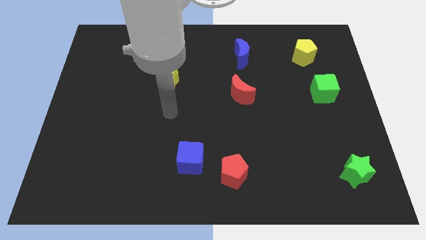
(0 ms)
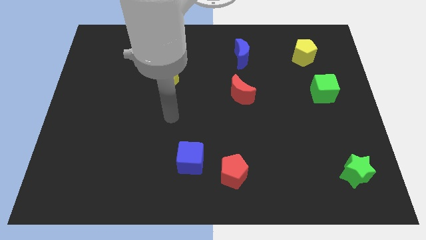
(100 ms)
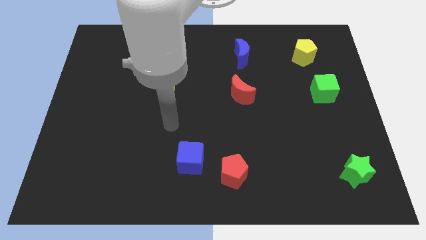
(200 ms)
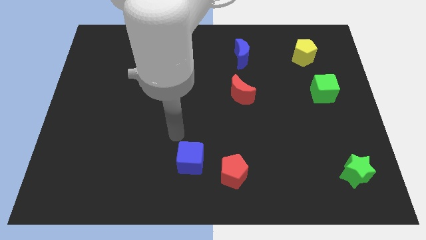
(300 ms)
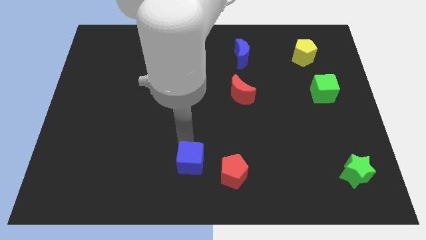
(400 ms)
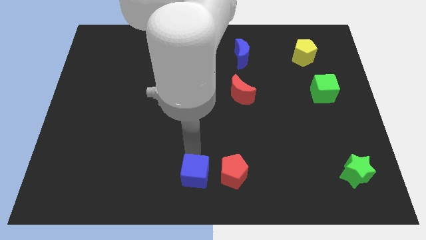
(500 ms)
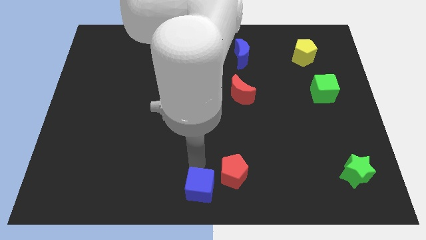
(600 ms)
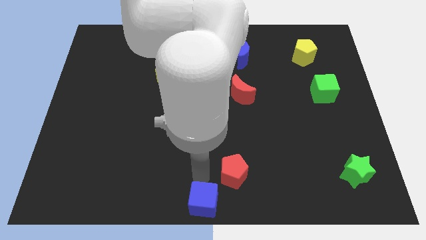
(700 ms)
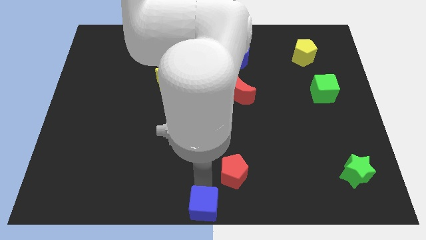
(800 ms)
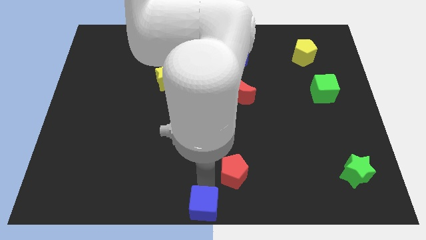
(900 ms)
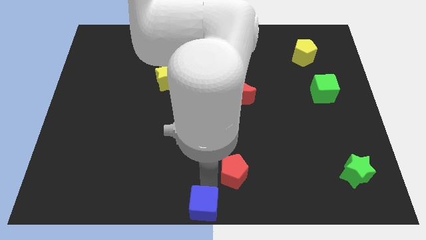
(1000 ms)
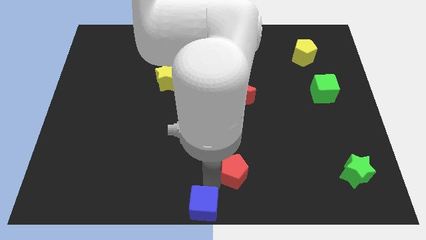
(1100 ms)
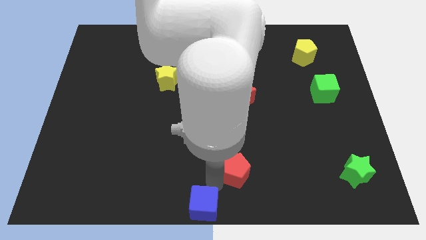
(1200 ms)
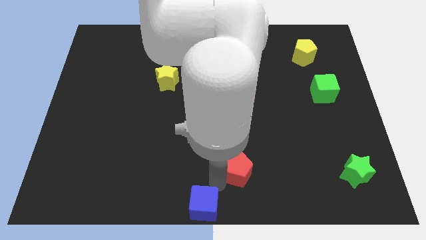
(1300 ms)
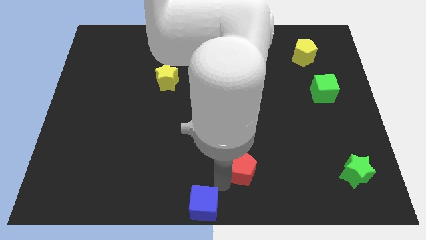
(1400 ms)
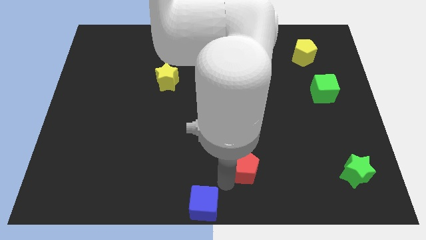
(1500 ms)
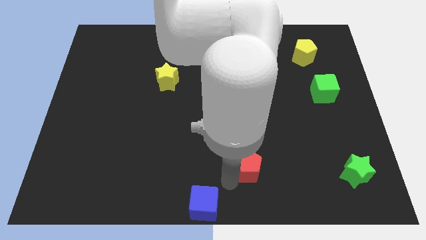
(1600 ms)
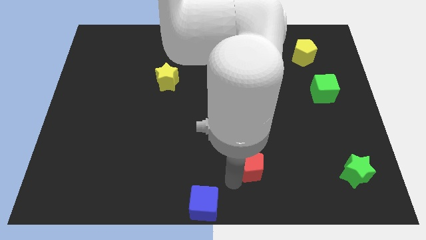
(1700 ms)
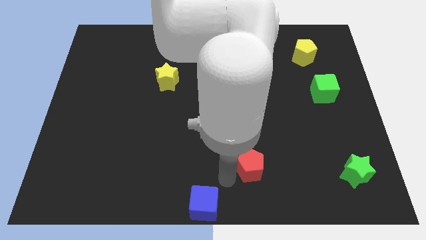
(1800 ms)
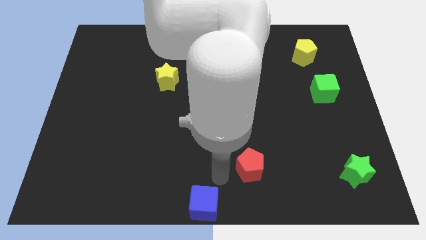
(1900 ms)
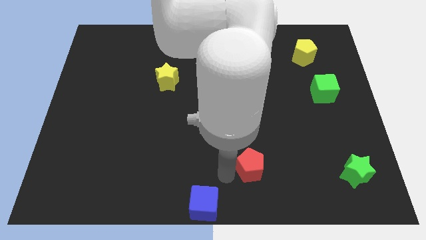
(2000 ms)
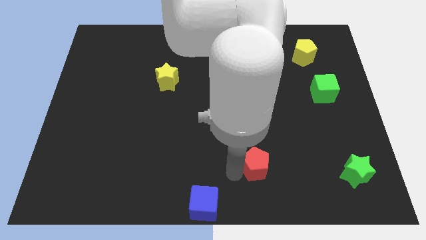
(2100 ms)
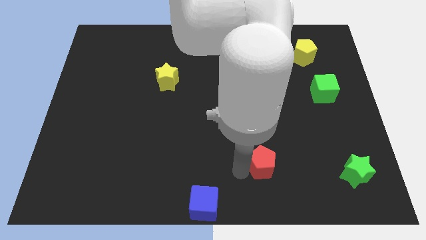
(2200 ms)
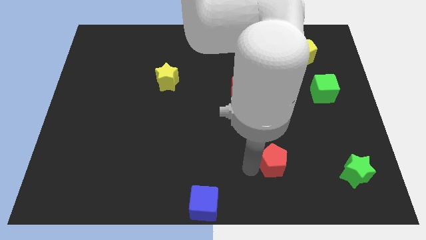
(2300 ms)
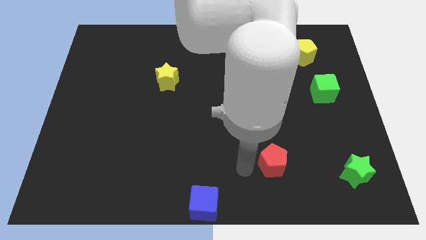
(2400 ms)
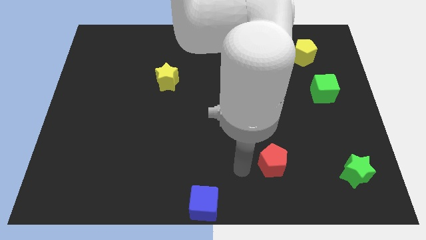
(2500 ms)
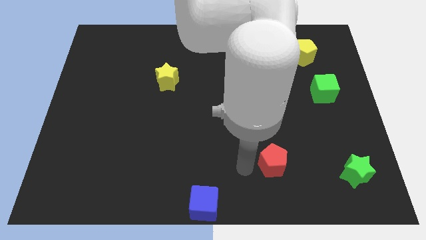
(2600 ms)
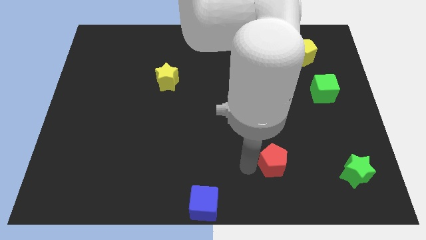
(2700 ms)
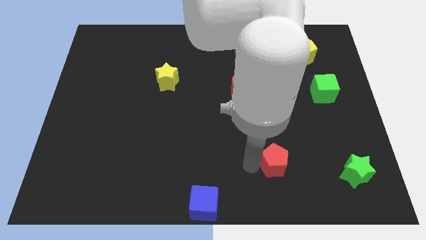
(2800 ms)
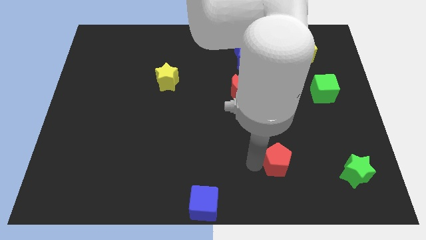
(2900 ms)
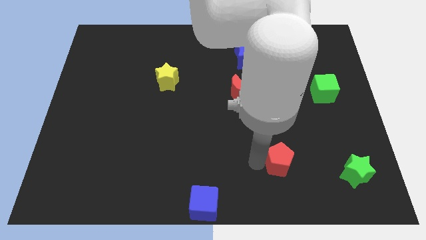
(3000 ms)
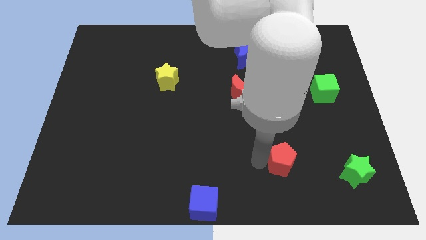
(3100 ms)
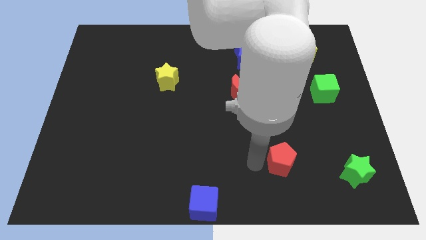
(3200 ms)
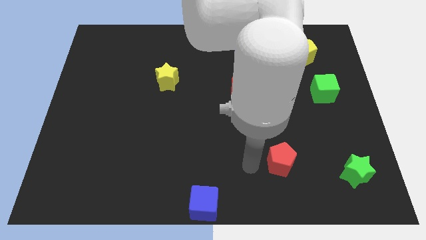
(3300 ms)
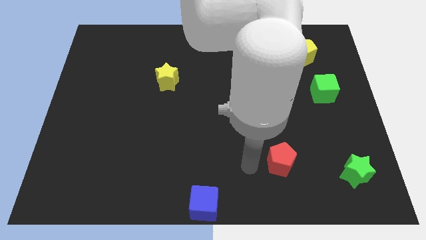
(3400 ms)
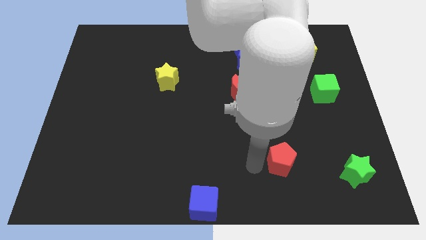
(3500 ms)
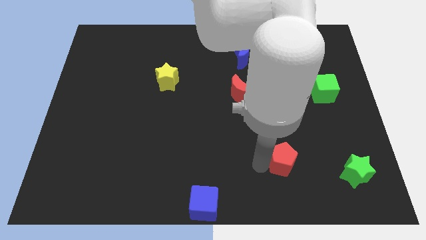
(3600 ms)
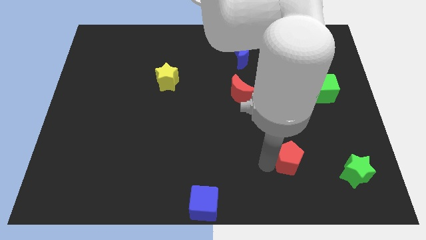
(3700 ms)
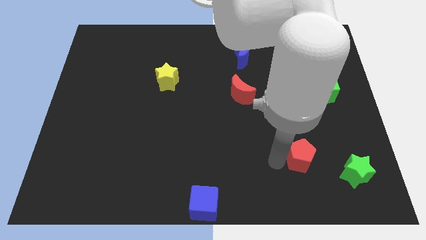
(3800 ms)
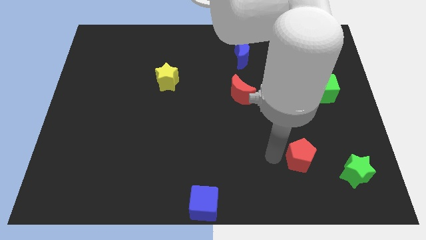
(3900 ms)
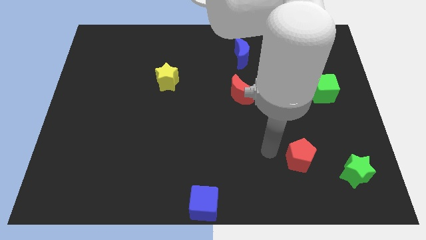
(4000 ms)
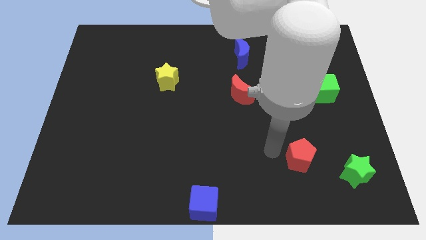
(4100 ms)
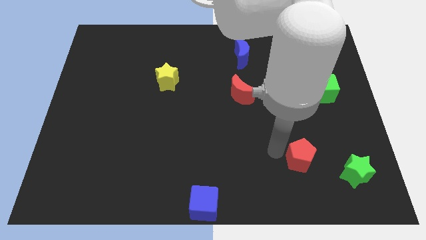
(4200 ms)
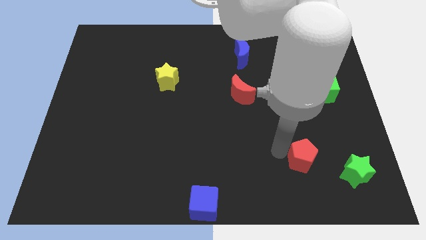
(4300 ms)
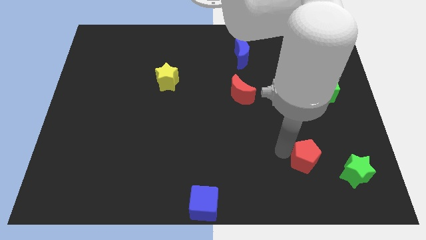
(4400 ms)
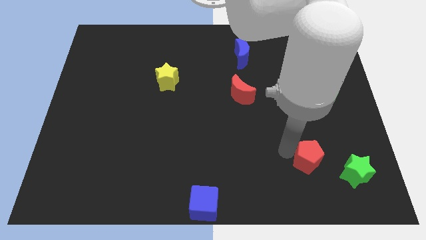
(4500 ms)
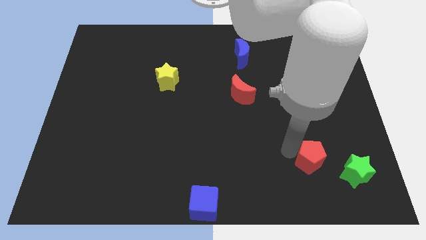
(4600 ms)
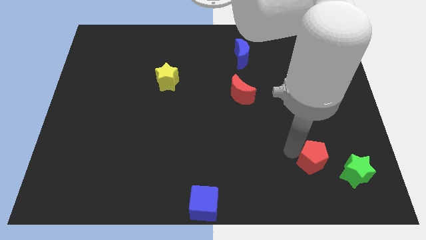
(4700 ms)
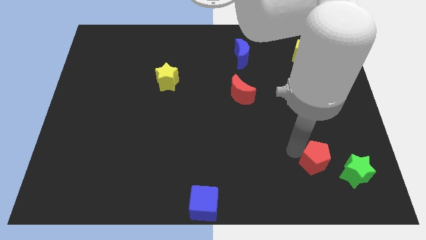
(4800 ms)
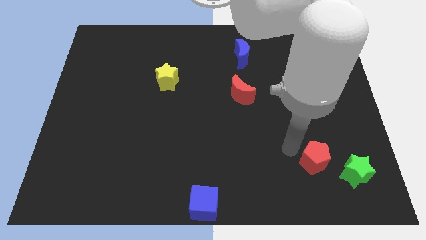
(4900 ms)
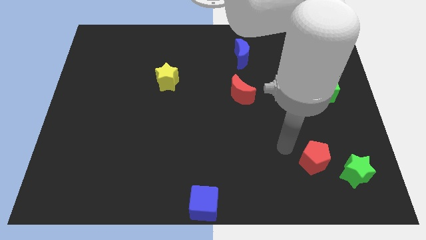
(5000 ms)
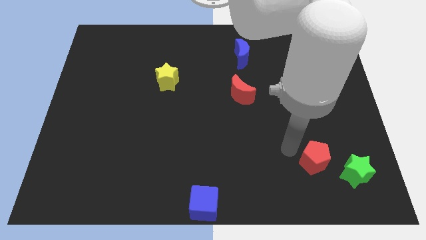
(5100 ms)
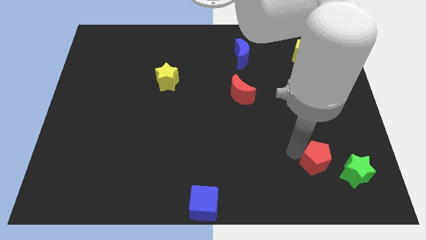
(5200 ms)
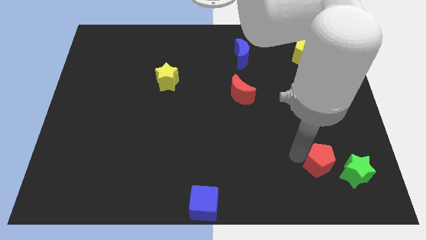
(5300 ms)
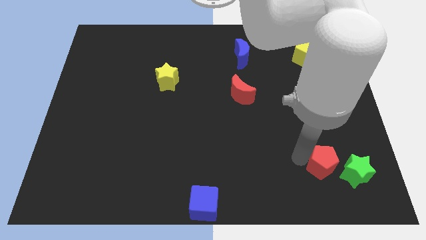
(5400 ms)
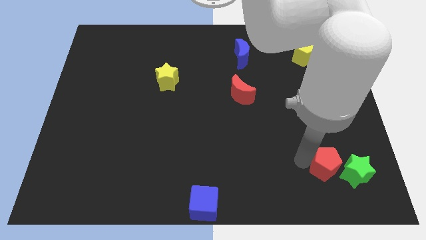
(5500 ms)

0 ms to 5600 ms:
put the red pentagon towards the green star

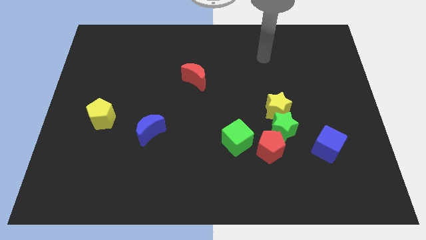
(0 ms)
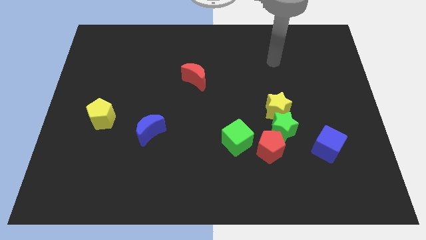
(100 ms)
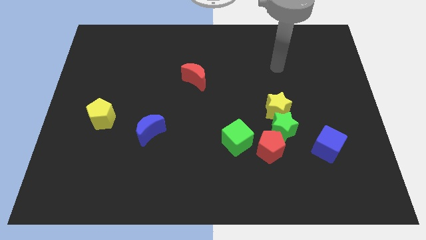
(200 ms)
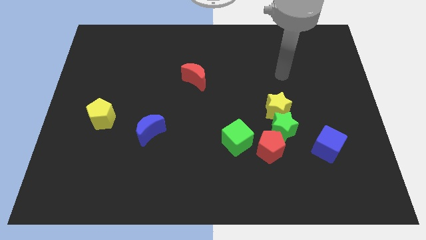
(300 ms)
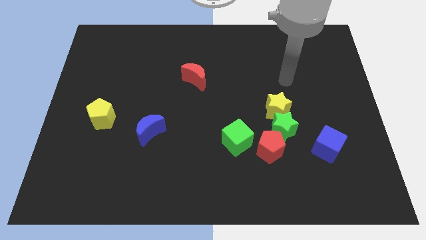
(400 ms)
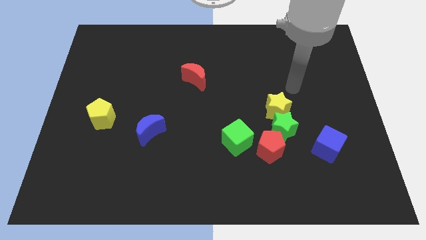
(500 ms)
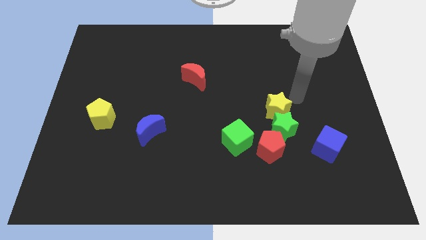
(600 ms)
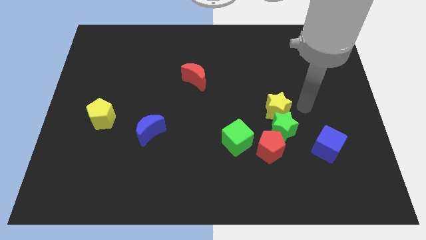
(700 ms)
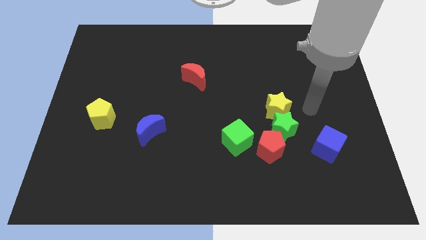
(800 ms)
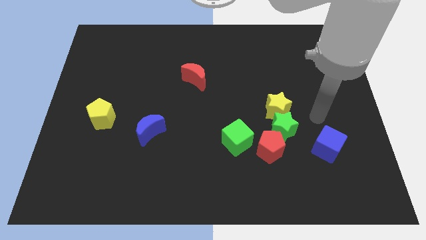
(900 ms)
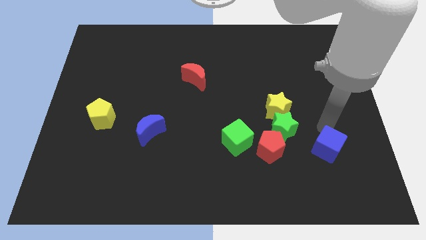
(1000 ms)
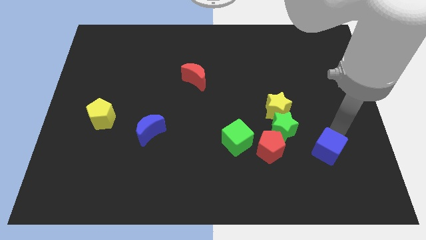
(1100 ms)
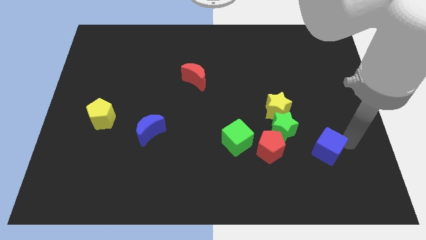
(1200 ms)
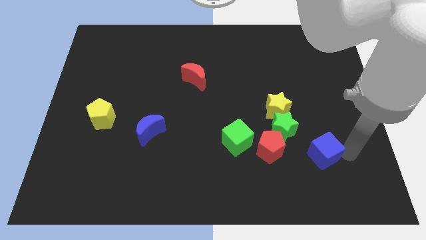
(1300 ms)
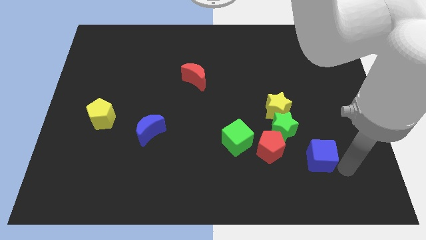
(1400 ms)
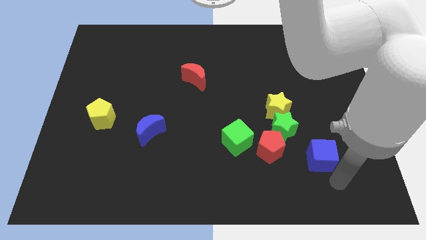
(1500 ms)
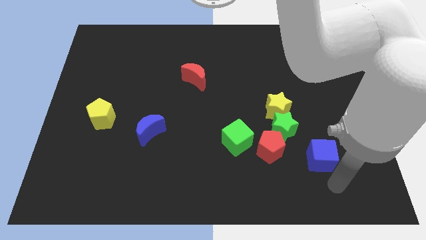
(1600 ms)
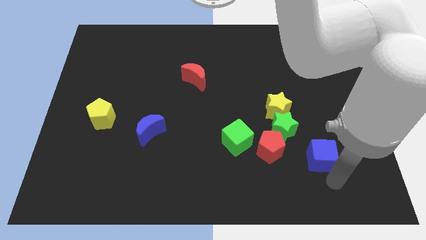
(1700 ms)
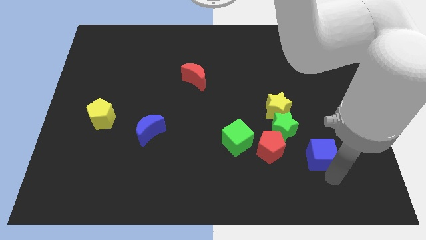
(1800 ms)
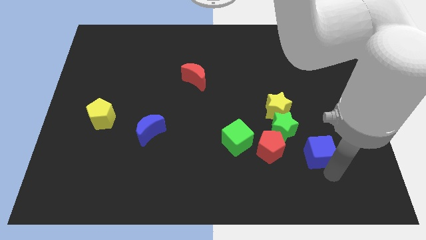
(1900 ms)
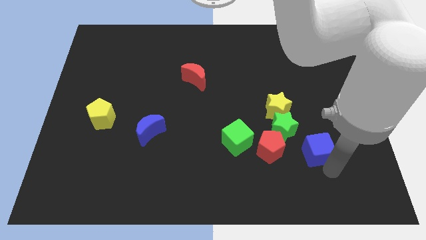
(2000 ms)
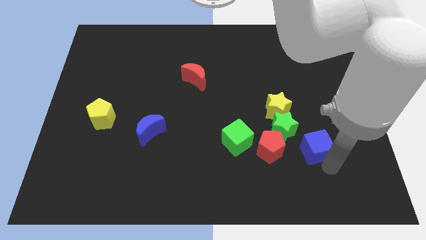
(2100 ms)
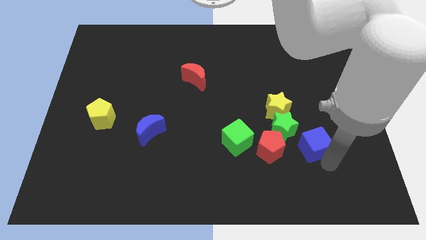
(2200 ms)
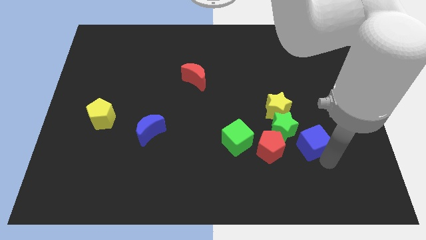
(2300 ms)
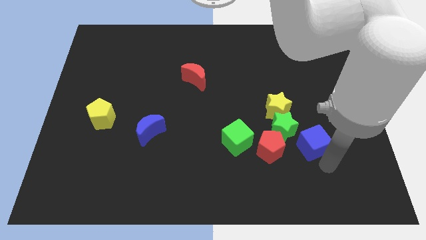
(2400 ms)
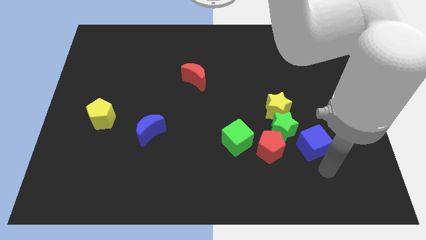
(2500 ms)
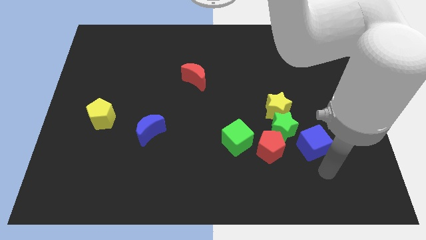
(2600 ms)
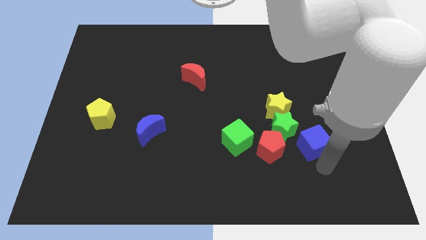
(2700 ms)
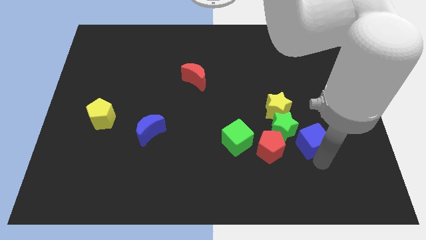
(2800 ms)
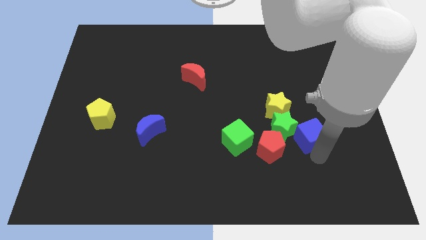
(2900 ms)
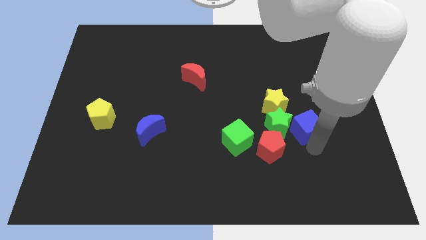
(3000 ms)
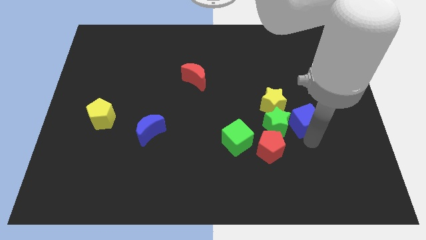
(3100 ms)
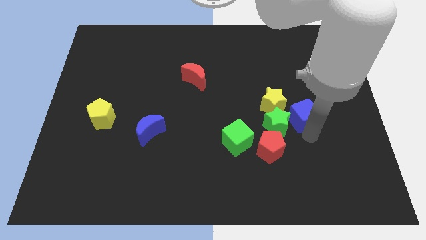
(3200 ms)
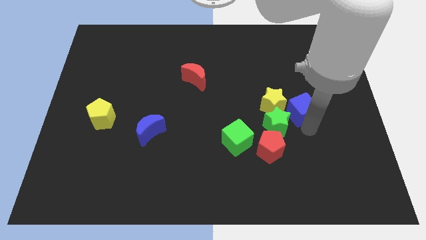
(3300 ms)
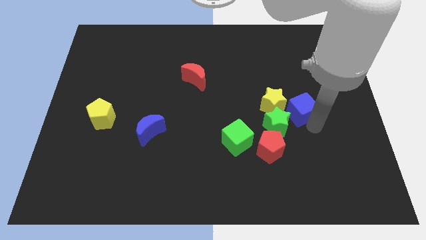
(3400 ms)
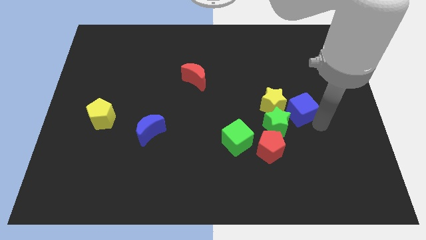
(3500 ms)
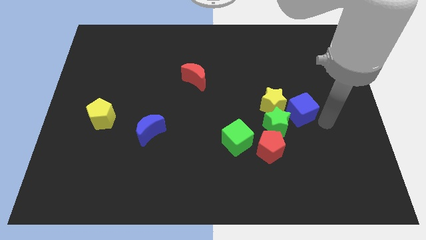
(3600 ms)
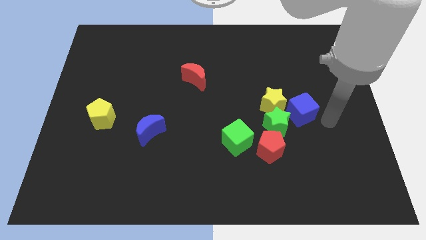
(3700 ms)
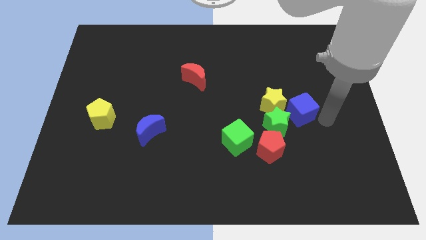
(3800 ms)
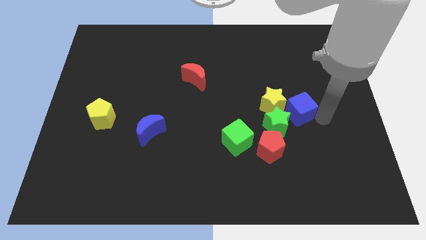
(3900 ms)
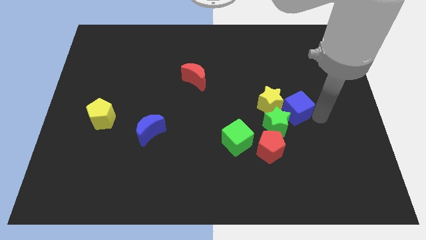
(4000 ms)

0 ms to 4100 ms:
push the blue cube towards the yellow star
